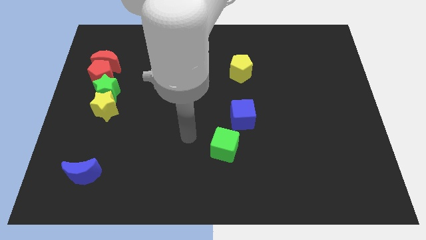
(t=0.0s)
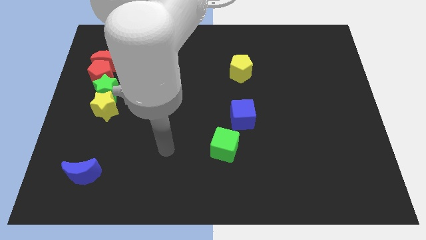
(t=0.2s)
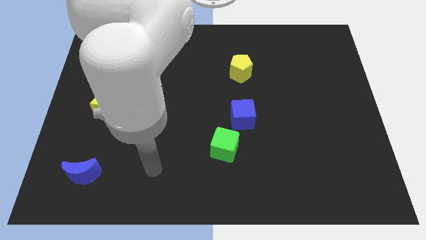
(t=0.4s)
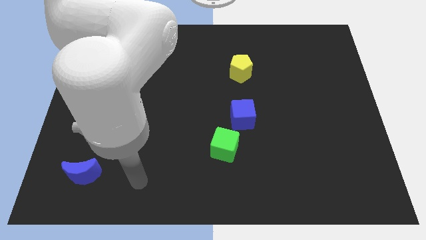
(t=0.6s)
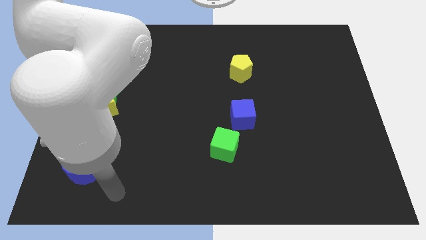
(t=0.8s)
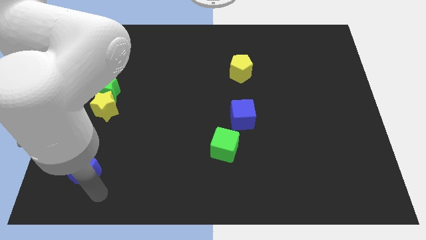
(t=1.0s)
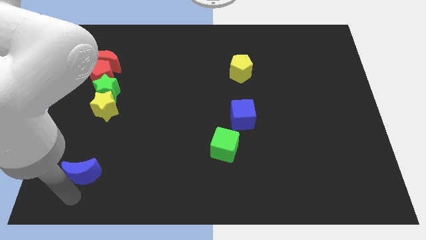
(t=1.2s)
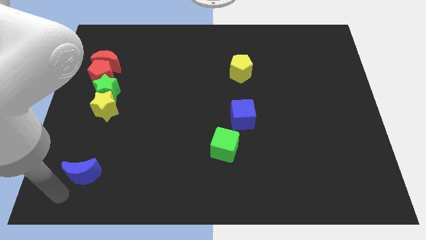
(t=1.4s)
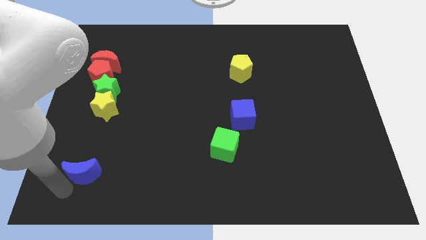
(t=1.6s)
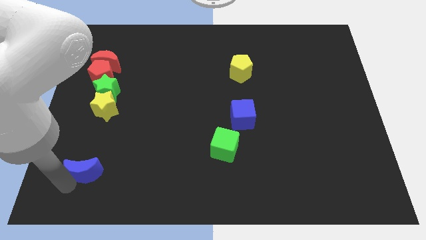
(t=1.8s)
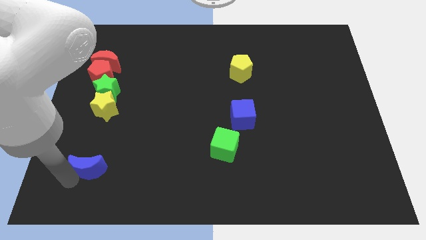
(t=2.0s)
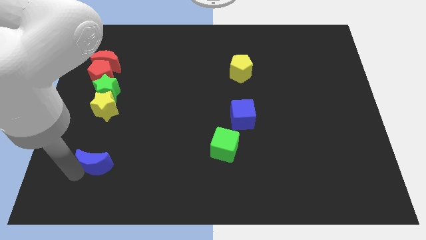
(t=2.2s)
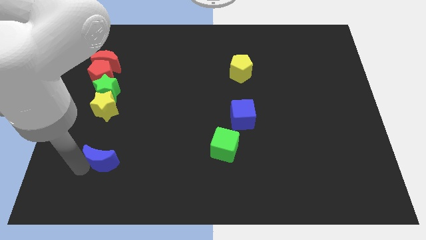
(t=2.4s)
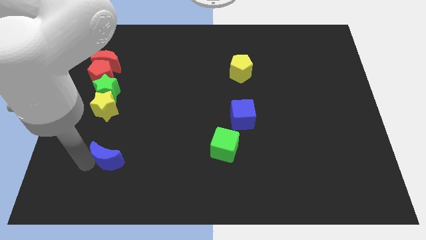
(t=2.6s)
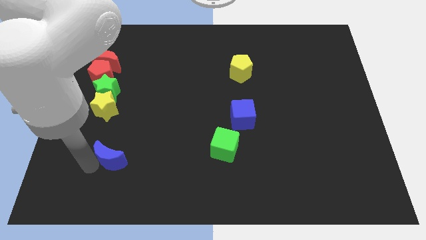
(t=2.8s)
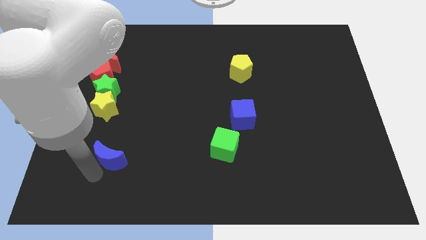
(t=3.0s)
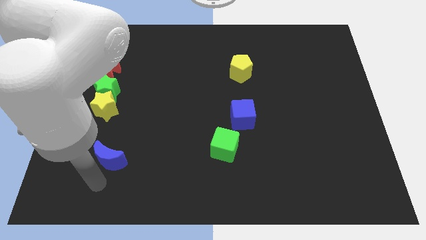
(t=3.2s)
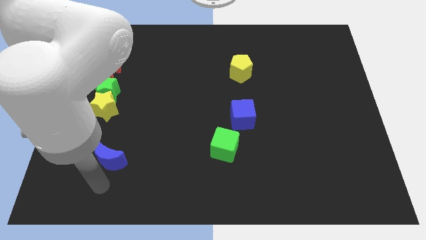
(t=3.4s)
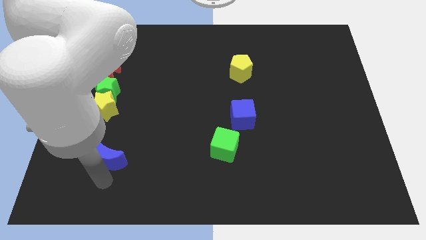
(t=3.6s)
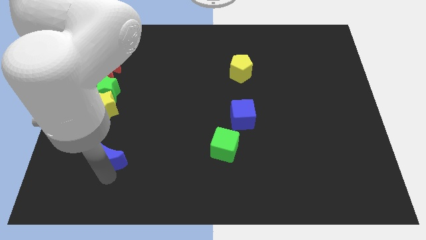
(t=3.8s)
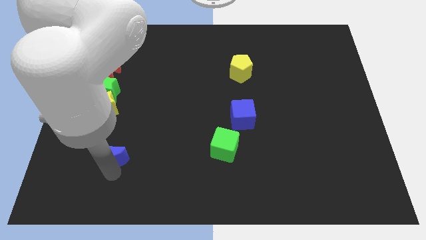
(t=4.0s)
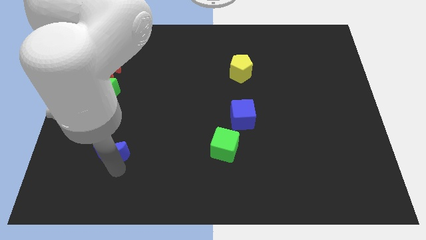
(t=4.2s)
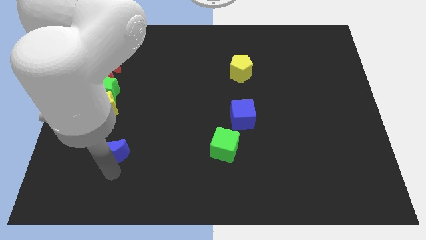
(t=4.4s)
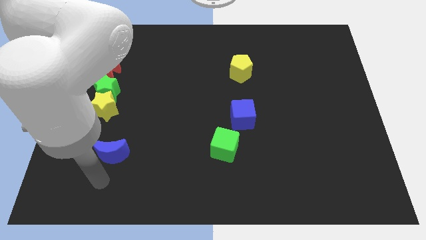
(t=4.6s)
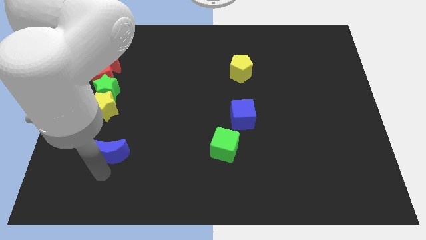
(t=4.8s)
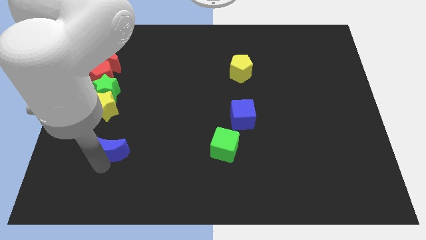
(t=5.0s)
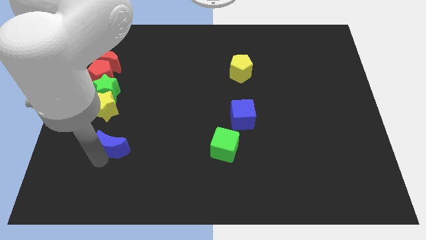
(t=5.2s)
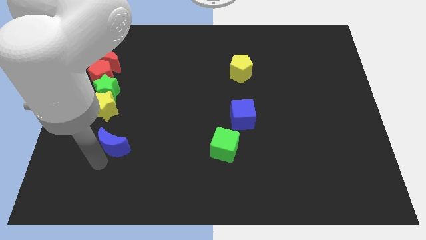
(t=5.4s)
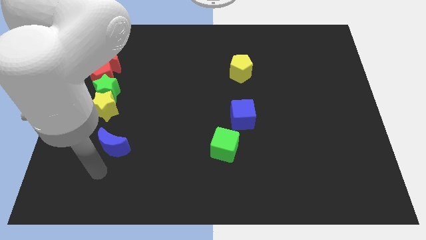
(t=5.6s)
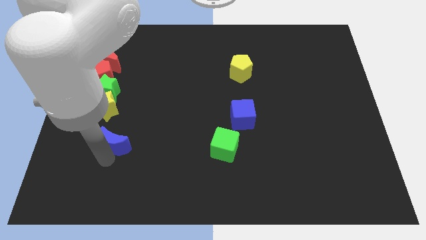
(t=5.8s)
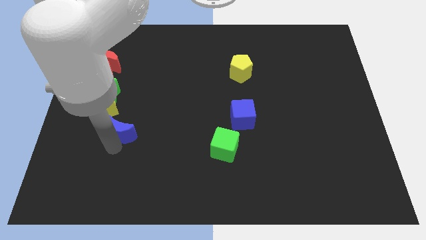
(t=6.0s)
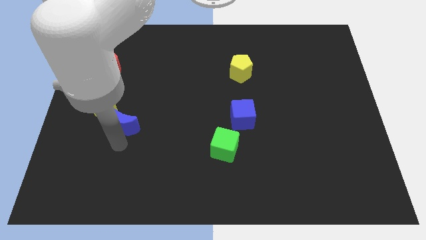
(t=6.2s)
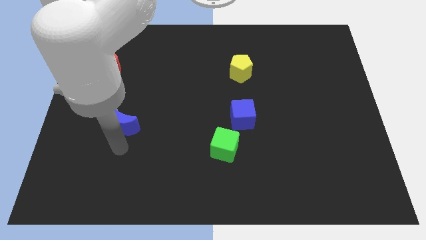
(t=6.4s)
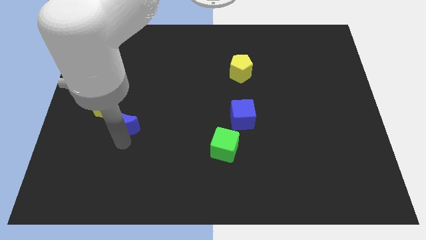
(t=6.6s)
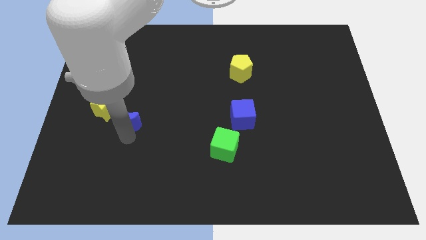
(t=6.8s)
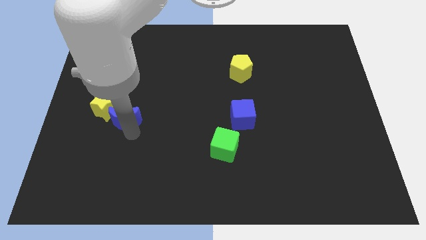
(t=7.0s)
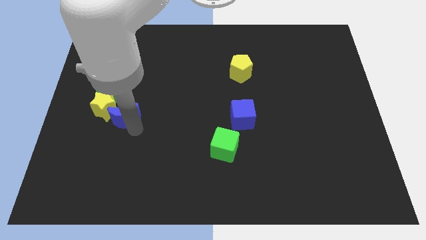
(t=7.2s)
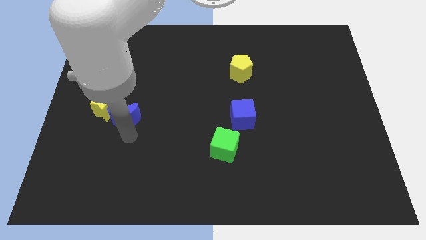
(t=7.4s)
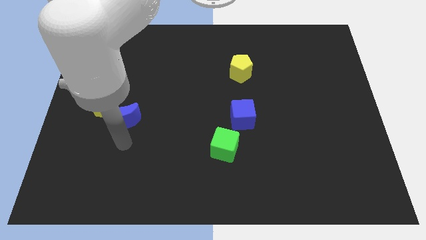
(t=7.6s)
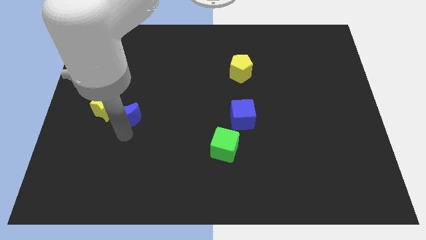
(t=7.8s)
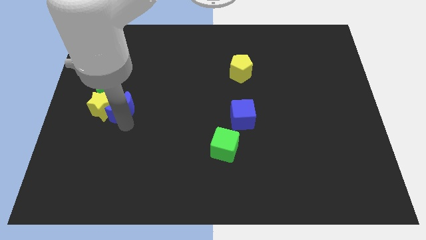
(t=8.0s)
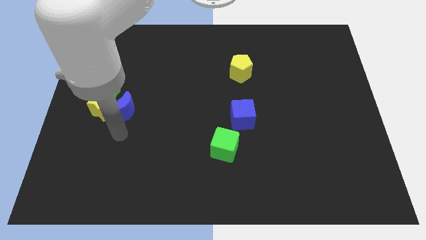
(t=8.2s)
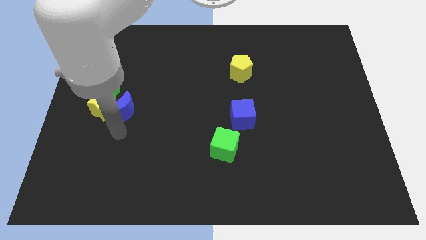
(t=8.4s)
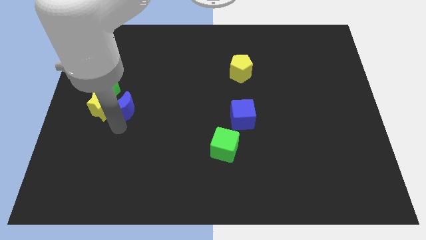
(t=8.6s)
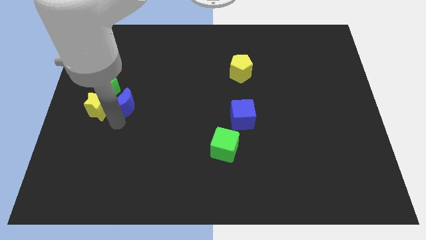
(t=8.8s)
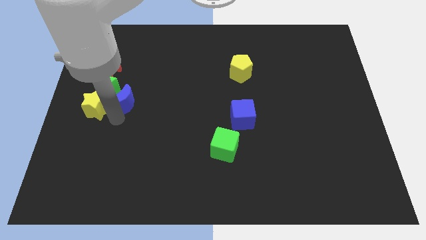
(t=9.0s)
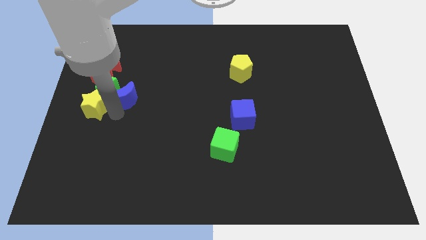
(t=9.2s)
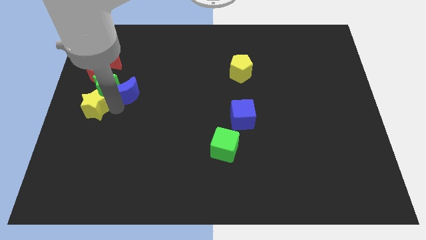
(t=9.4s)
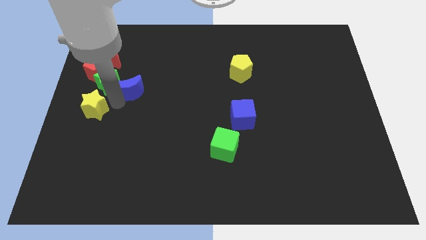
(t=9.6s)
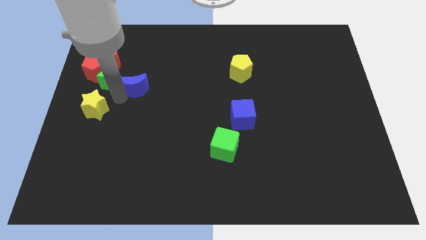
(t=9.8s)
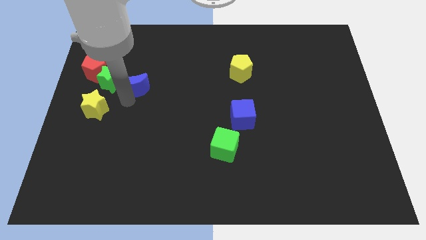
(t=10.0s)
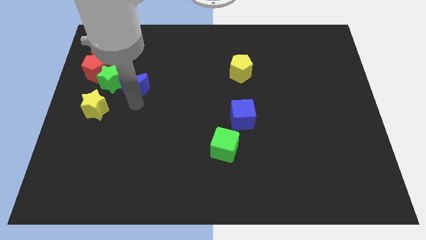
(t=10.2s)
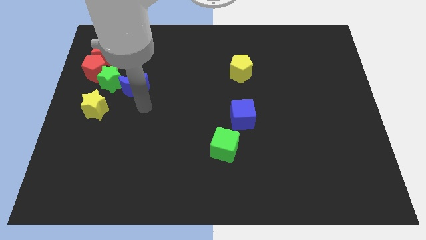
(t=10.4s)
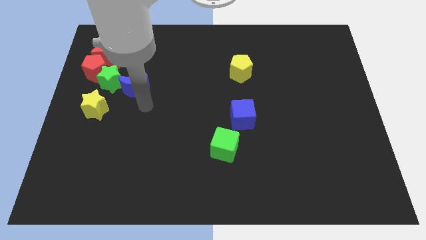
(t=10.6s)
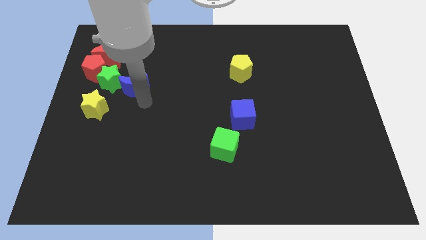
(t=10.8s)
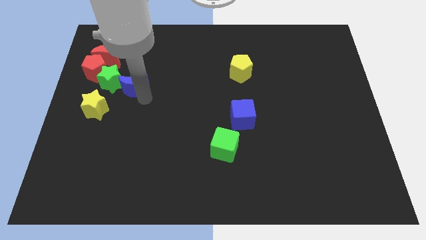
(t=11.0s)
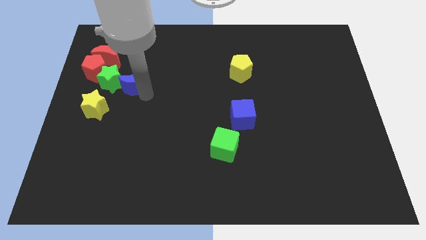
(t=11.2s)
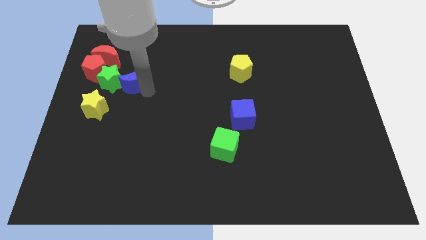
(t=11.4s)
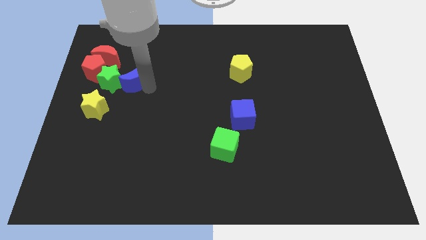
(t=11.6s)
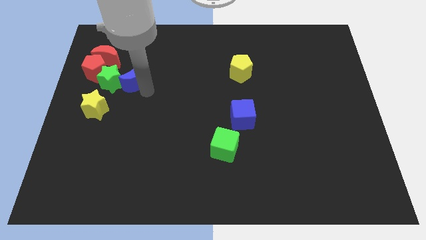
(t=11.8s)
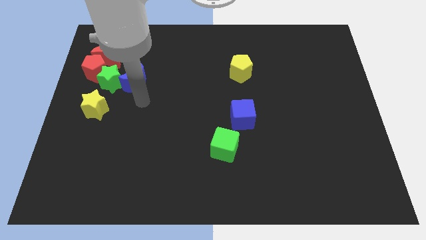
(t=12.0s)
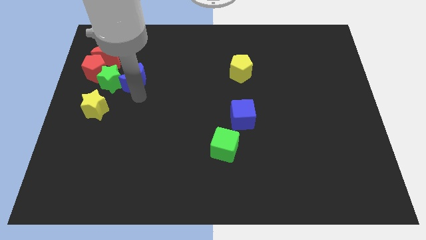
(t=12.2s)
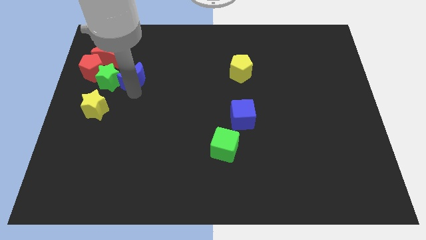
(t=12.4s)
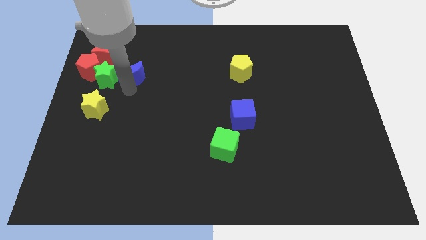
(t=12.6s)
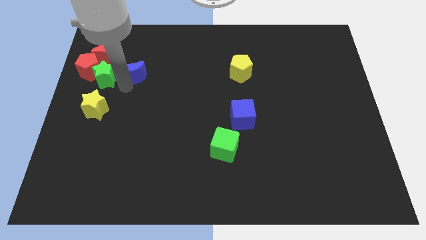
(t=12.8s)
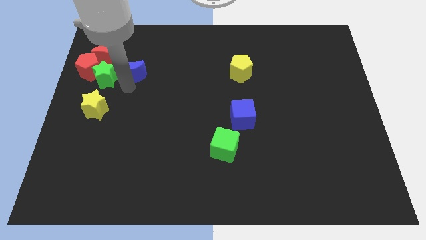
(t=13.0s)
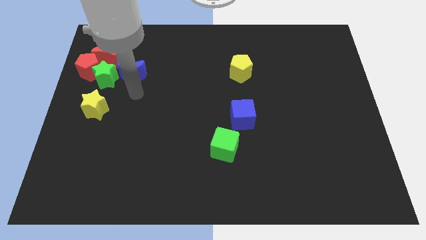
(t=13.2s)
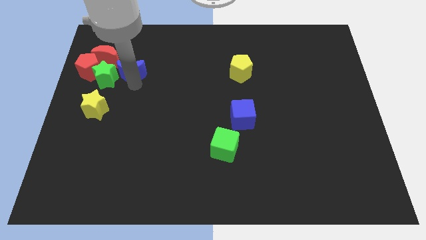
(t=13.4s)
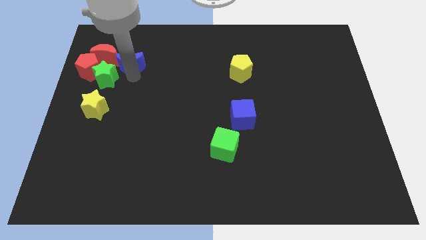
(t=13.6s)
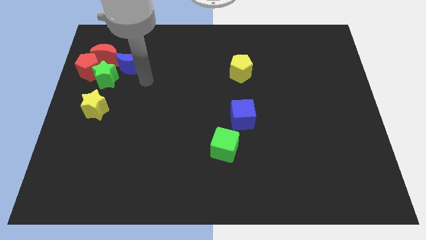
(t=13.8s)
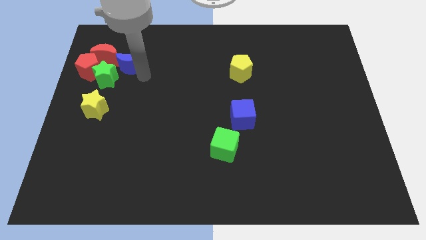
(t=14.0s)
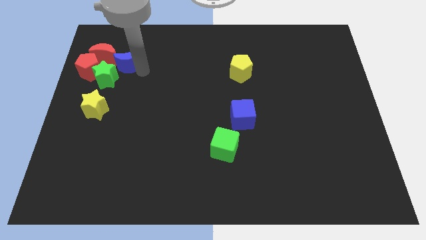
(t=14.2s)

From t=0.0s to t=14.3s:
move the blue moon to the top side of the green star

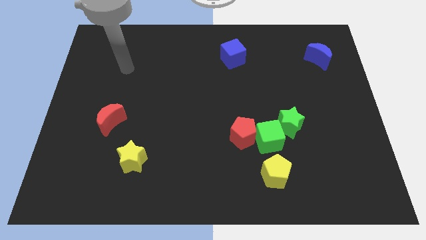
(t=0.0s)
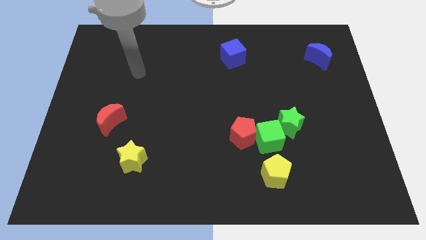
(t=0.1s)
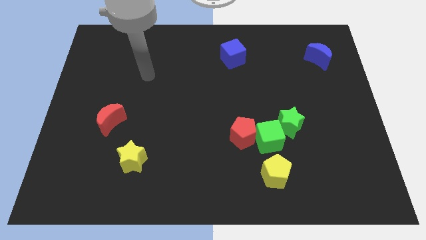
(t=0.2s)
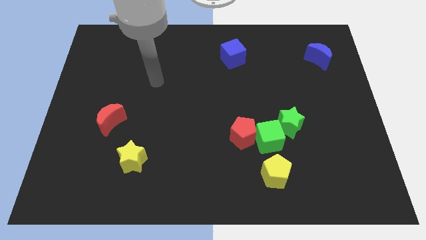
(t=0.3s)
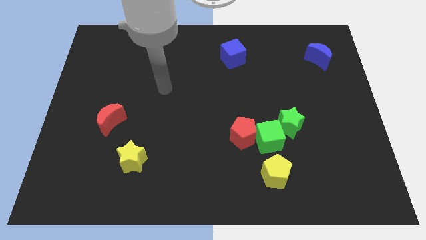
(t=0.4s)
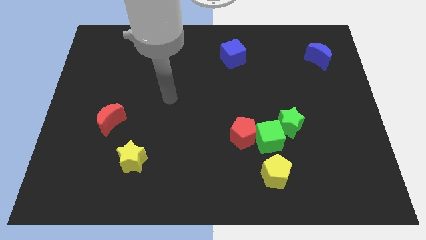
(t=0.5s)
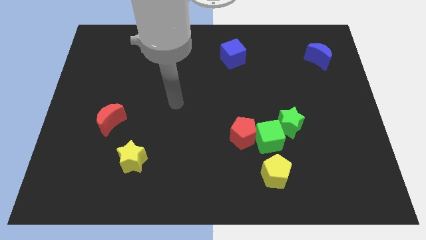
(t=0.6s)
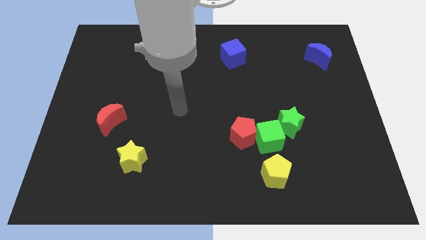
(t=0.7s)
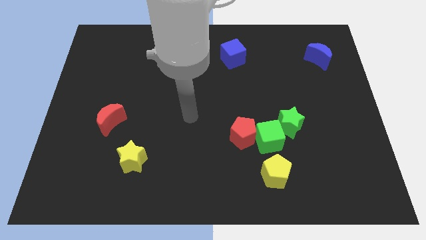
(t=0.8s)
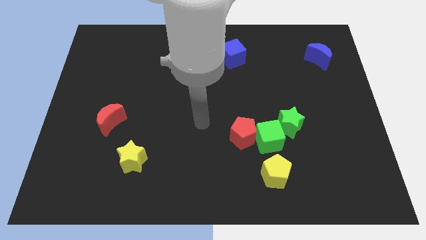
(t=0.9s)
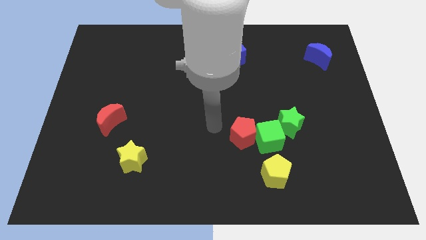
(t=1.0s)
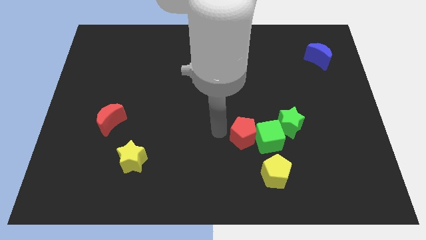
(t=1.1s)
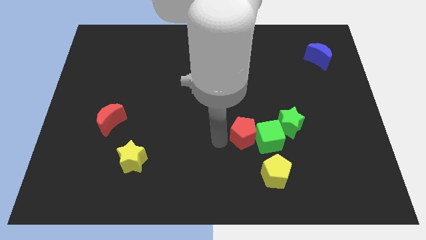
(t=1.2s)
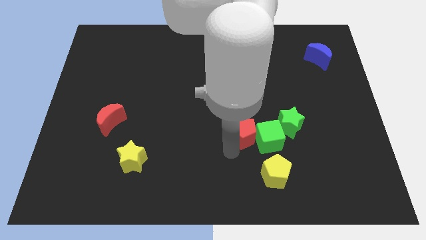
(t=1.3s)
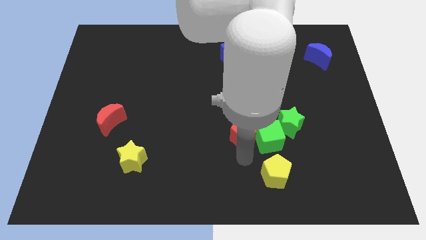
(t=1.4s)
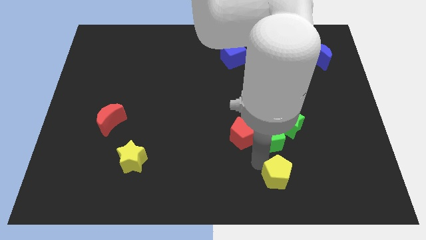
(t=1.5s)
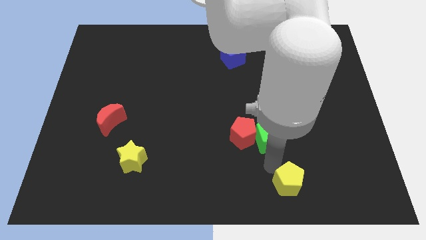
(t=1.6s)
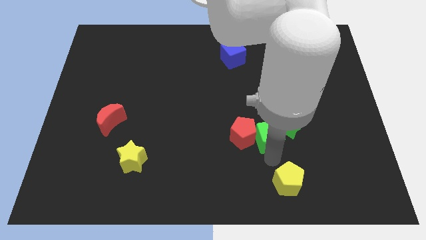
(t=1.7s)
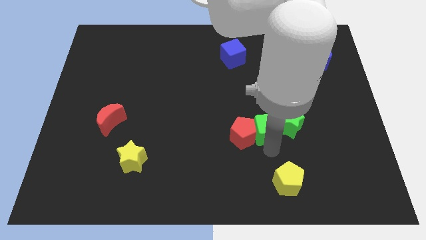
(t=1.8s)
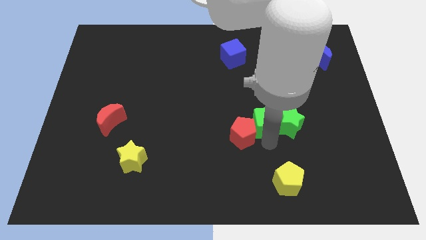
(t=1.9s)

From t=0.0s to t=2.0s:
push the green cube to the top left of the green star
